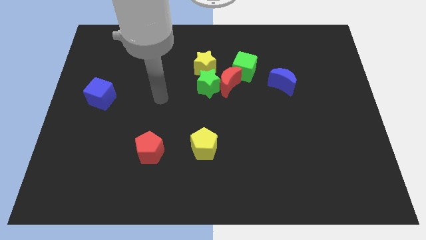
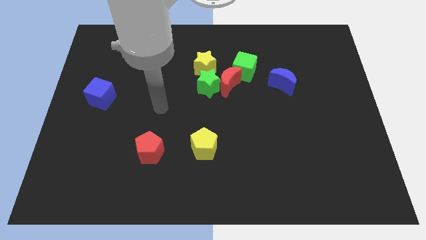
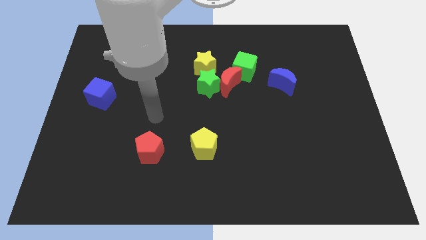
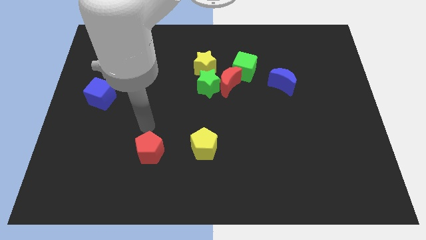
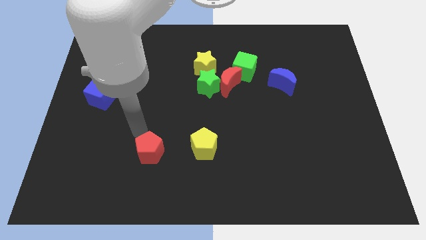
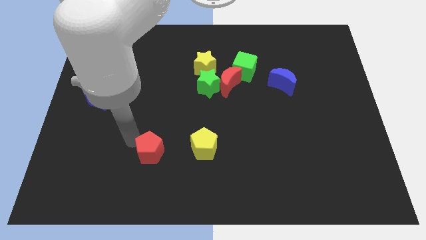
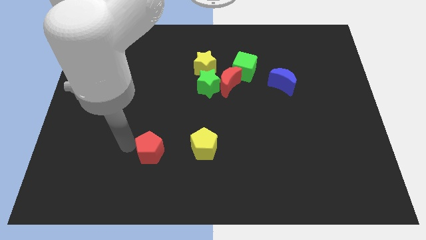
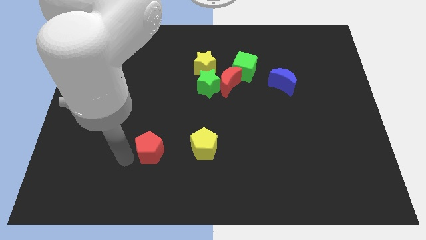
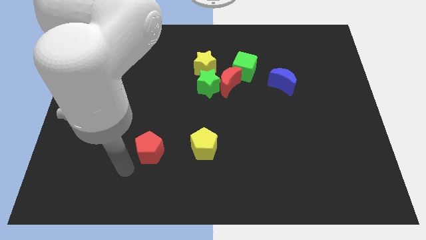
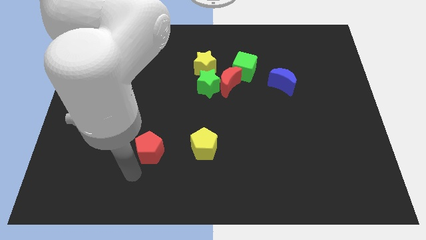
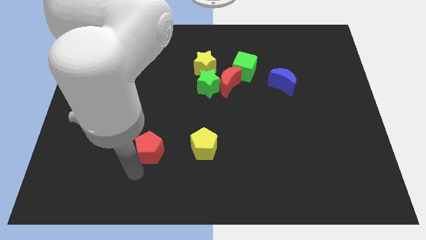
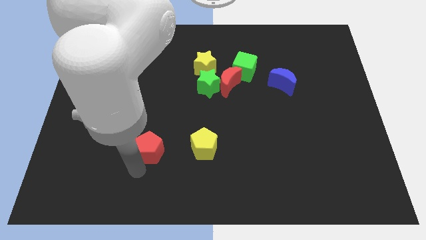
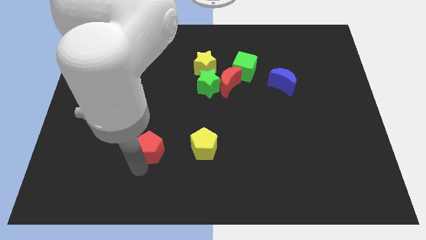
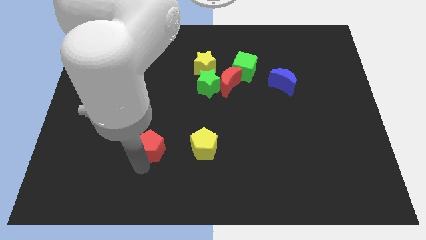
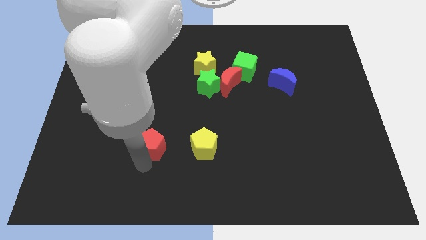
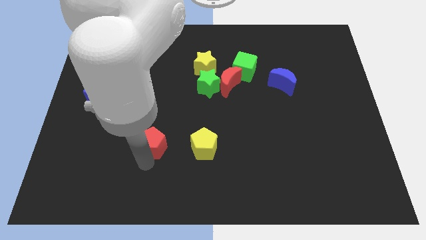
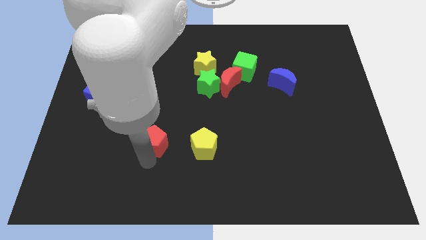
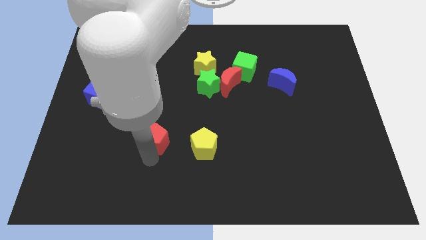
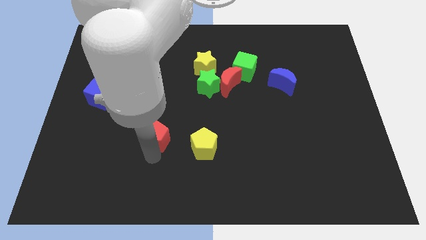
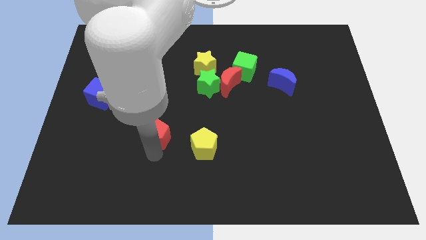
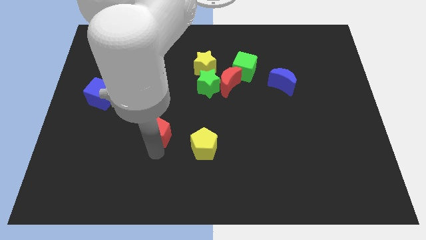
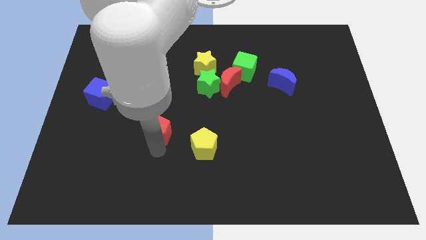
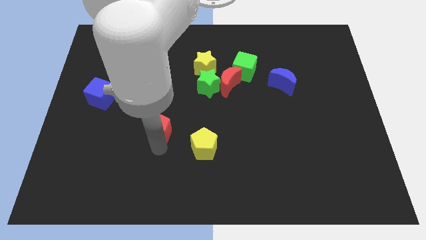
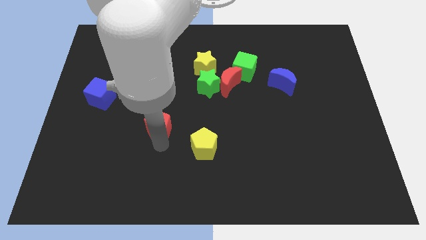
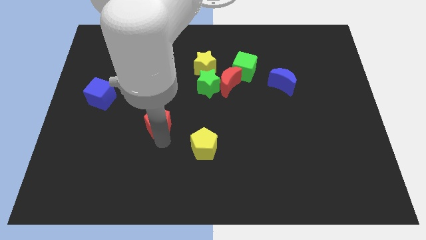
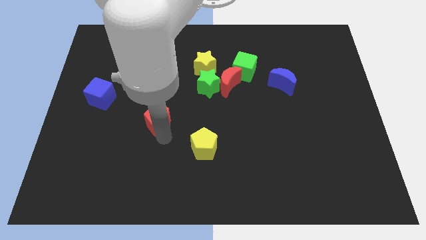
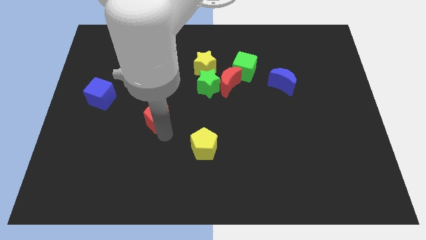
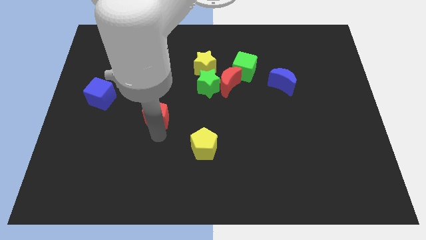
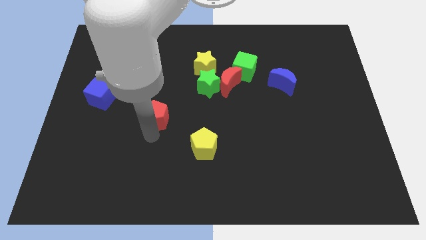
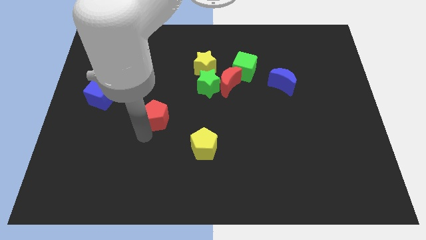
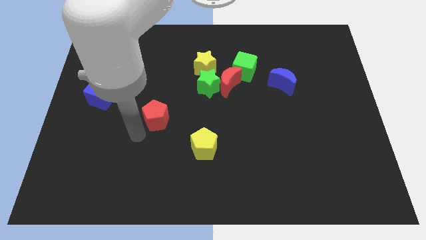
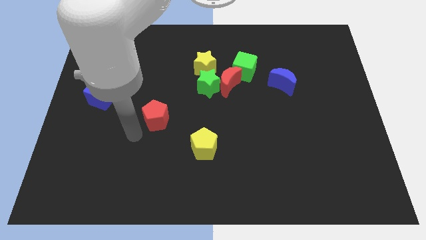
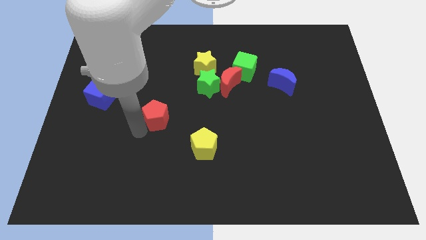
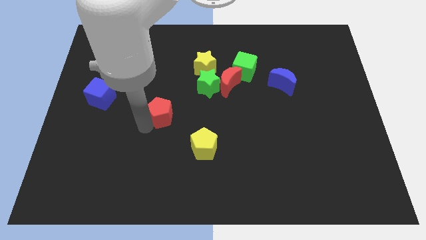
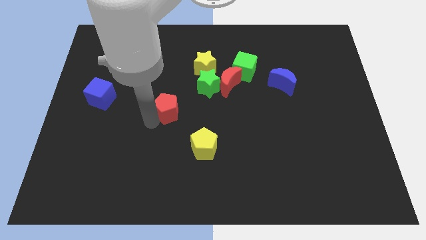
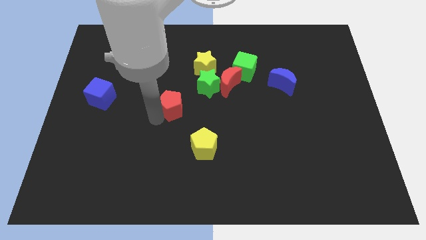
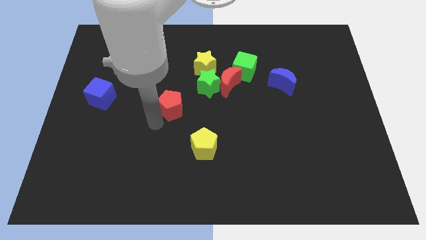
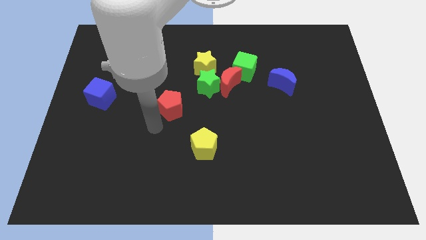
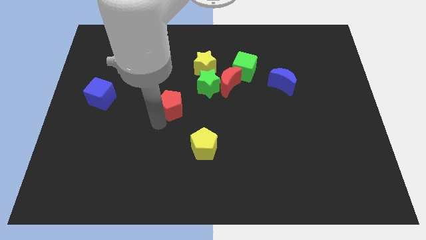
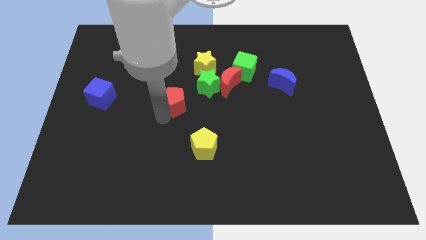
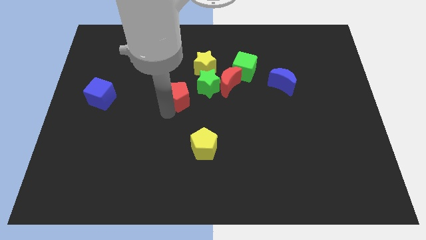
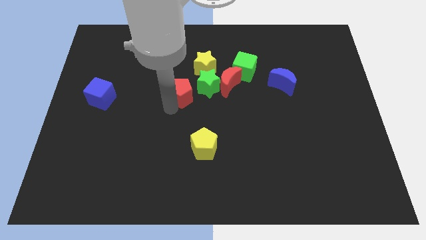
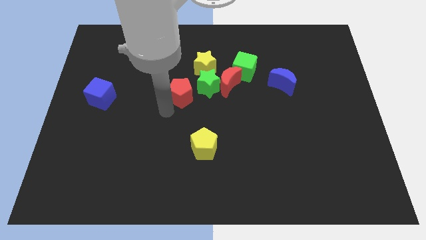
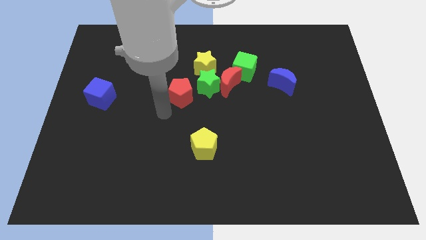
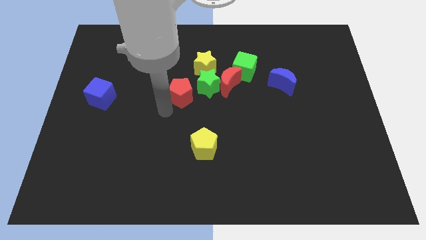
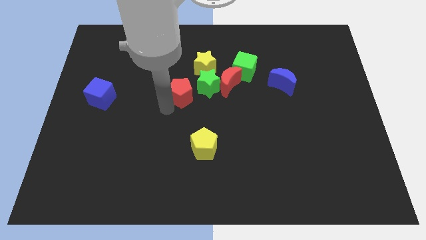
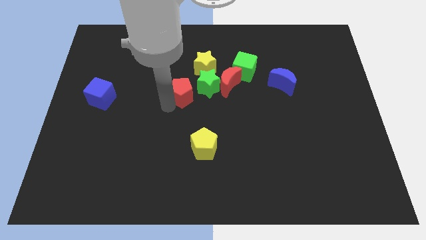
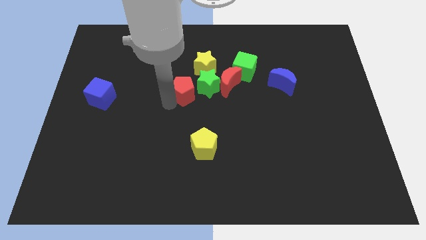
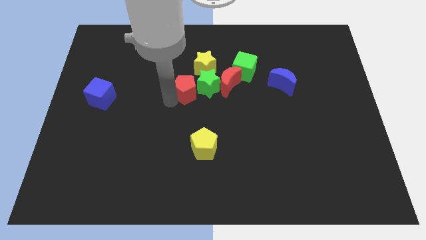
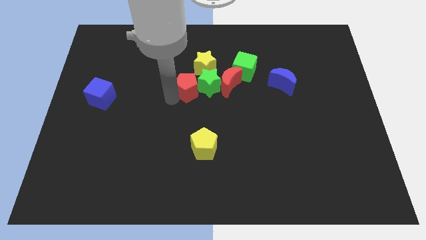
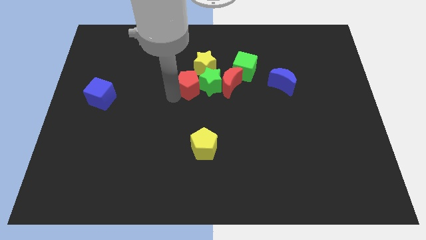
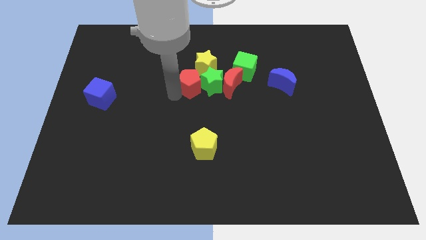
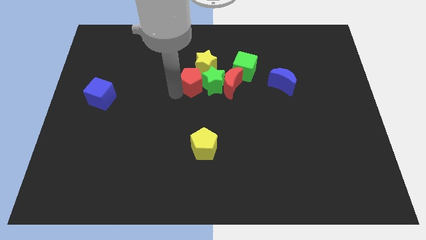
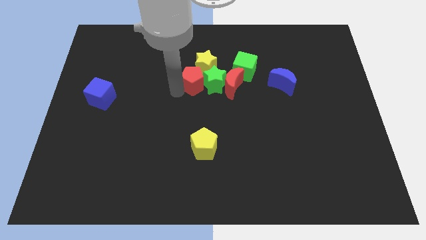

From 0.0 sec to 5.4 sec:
push the red pentagon close to the yellow star

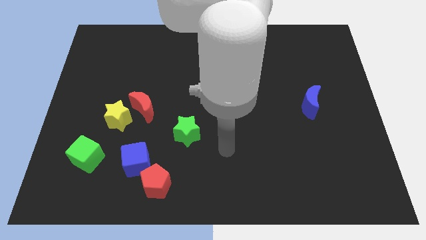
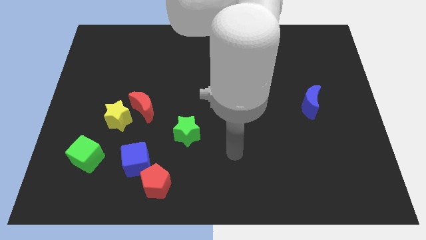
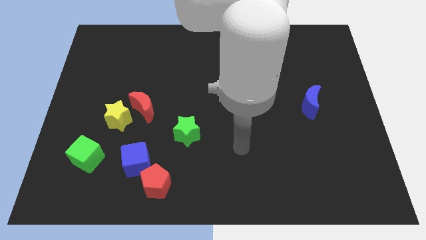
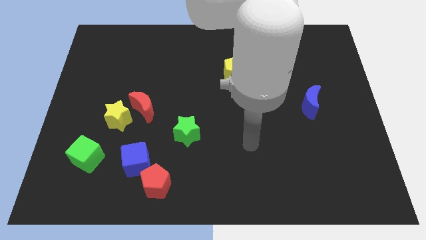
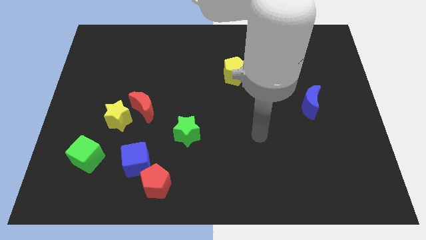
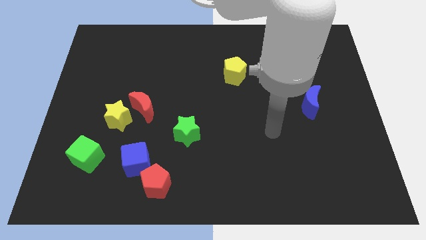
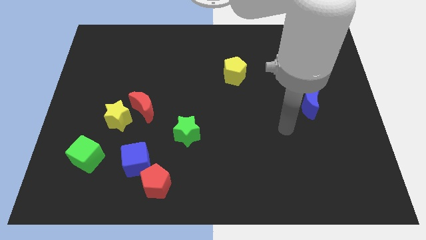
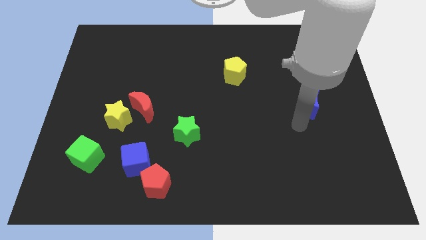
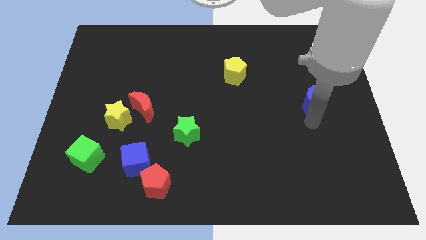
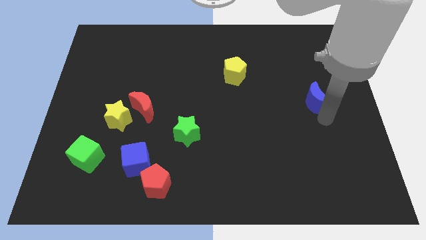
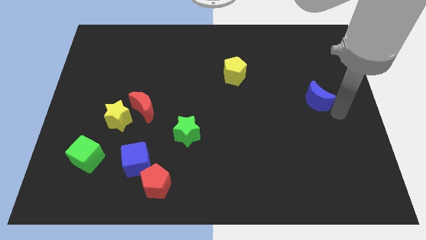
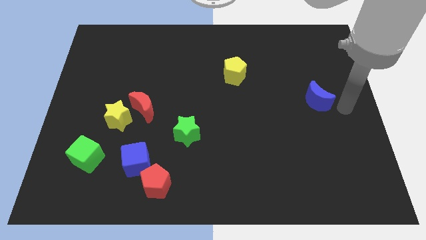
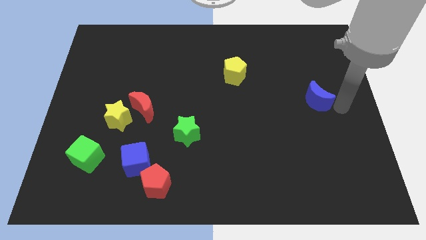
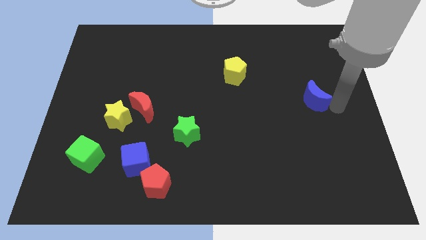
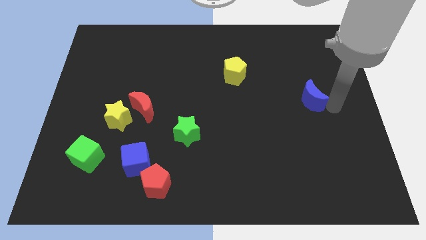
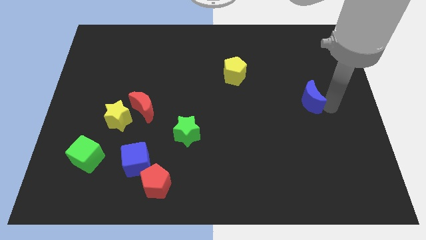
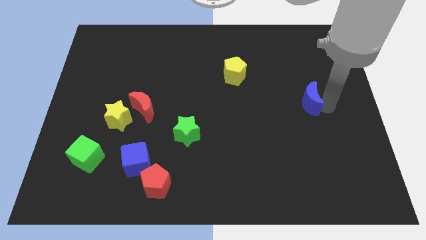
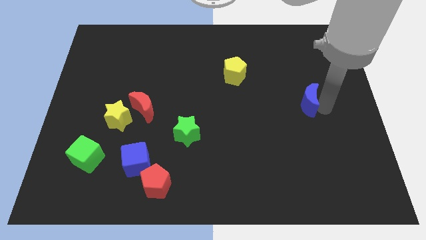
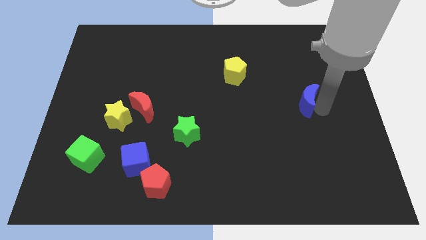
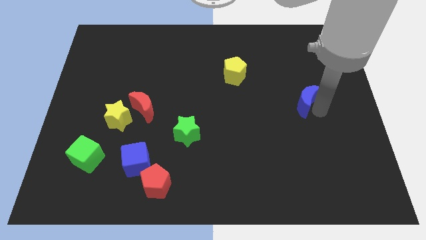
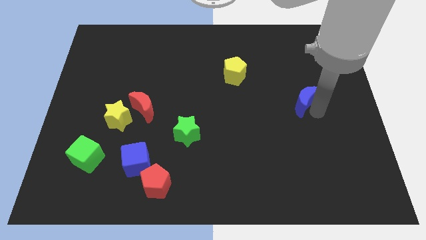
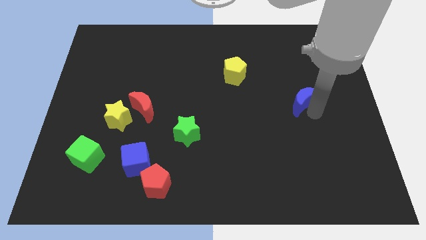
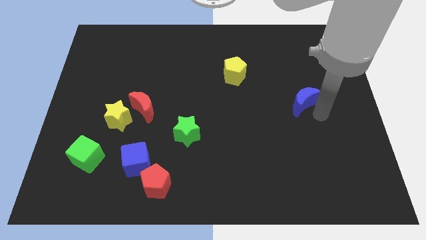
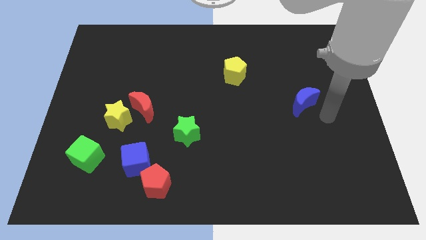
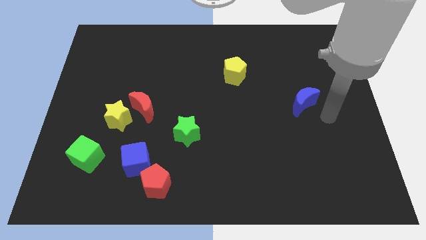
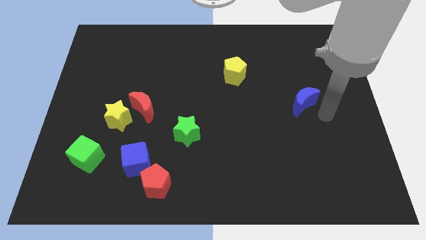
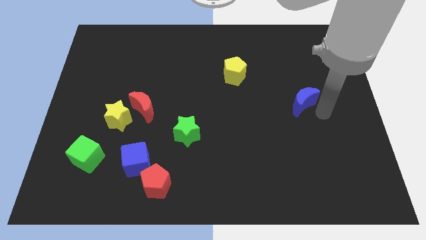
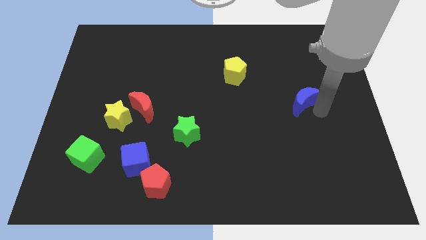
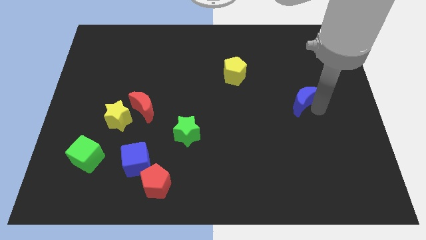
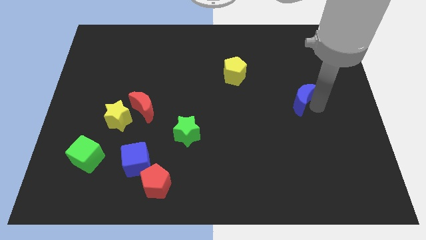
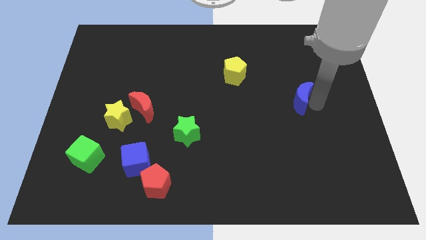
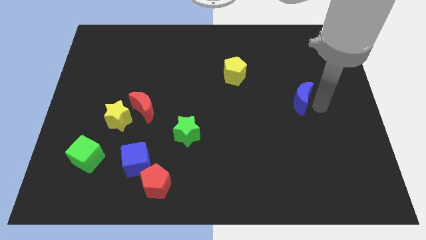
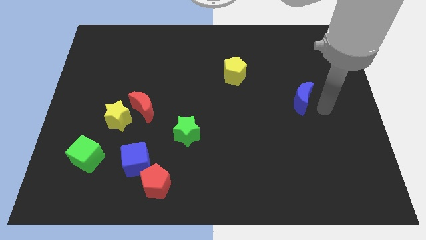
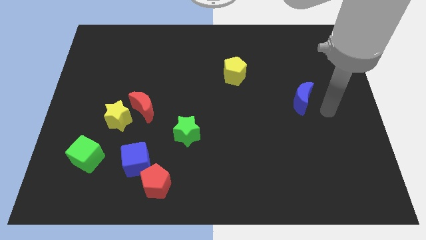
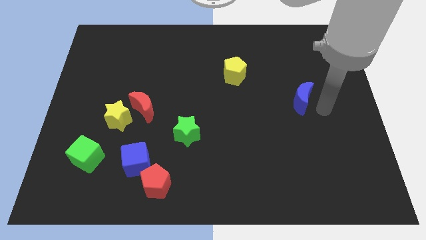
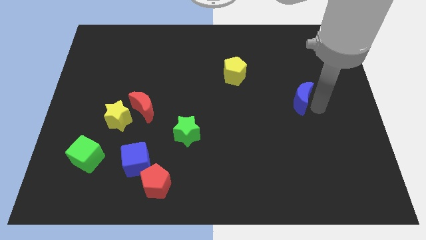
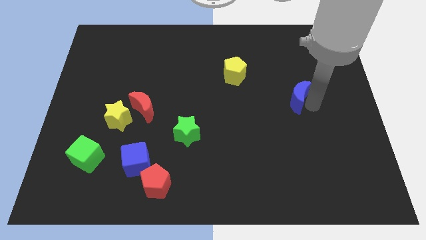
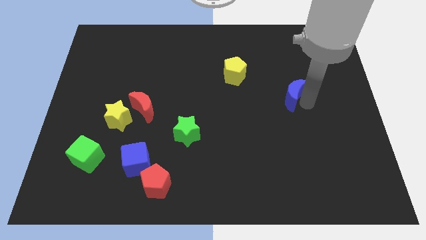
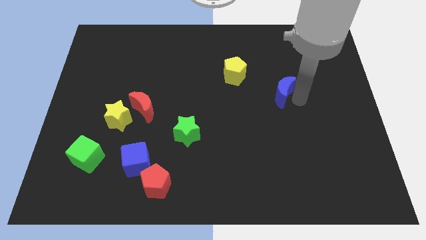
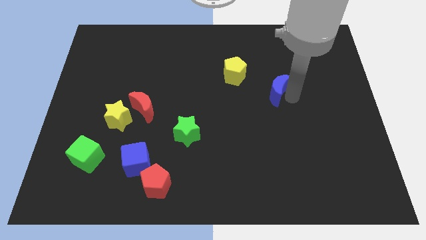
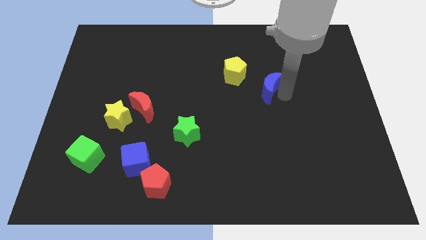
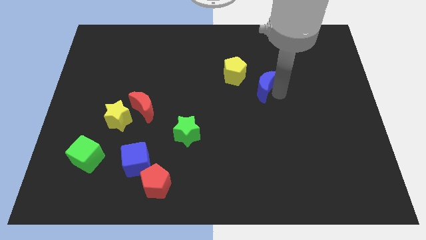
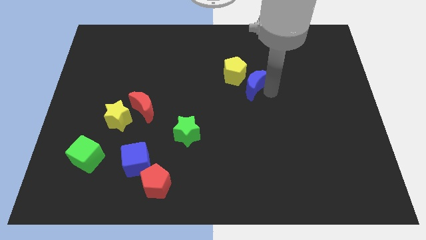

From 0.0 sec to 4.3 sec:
slide the blue moon towards the yellow pentagon
